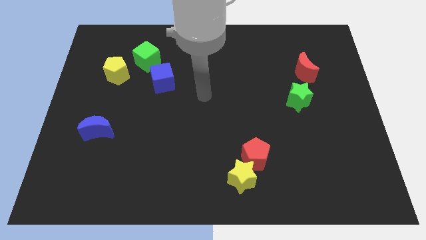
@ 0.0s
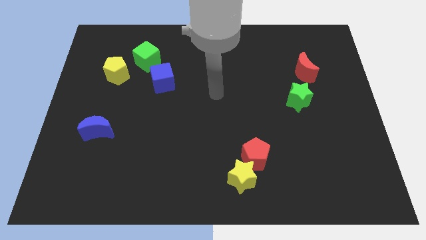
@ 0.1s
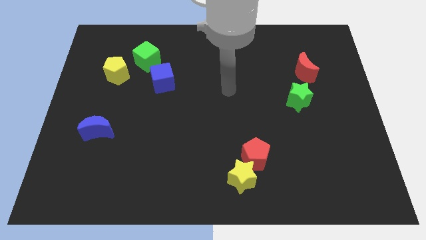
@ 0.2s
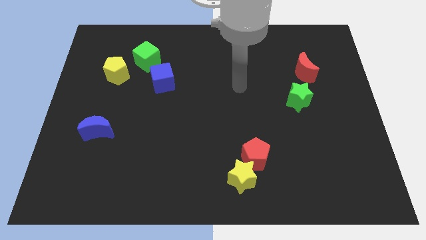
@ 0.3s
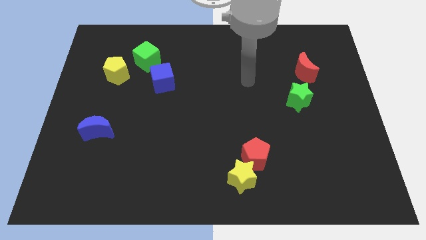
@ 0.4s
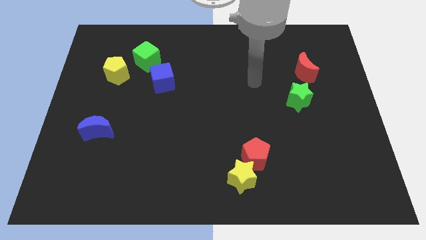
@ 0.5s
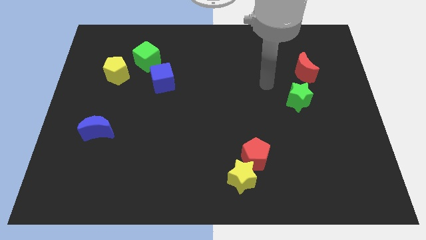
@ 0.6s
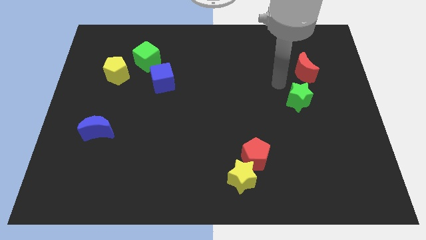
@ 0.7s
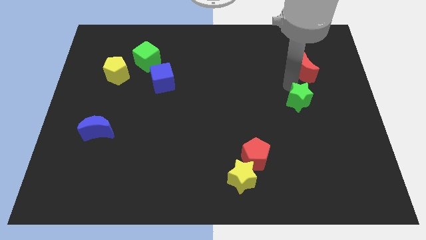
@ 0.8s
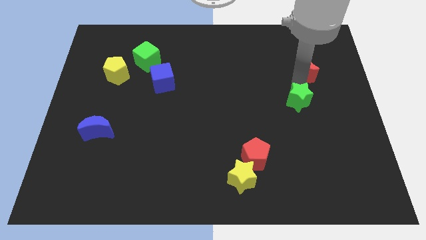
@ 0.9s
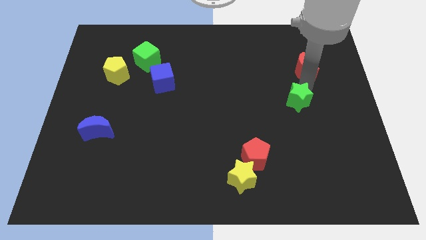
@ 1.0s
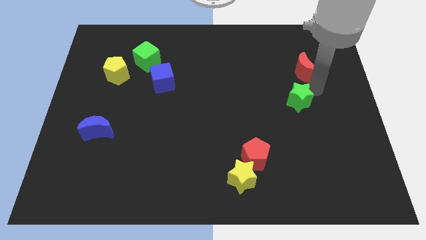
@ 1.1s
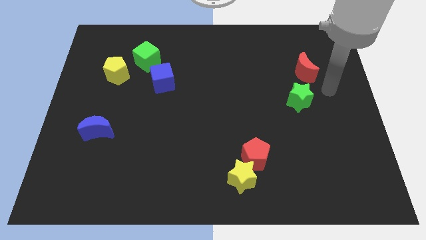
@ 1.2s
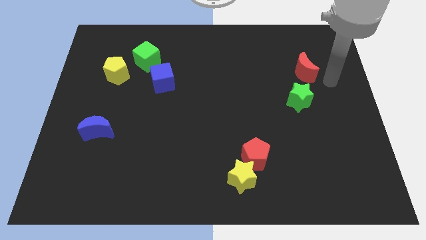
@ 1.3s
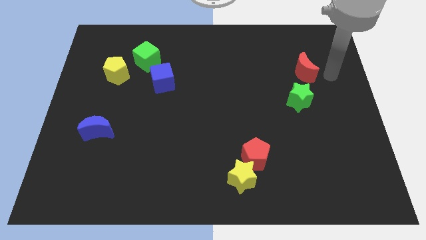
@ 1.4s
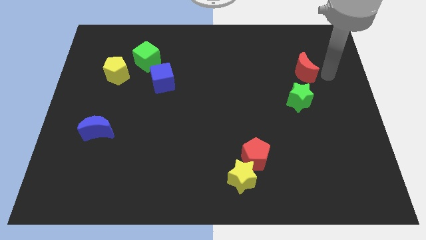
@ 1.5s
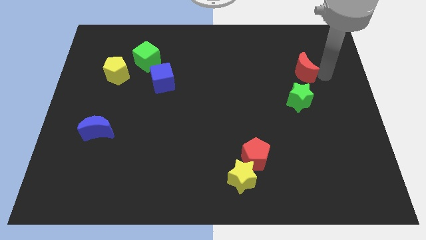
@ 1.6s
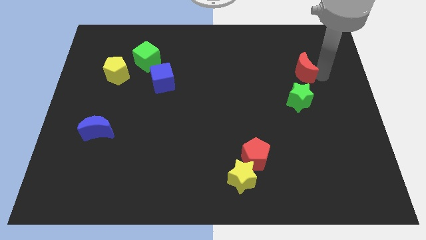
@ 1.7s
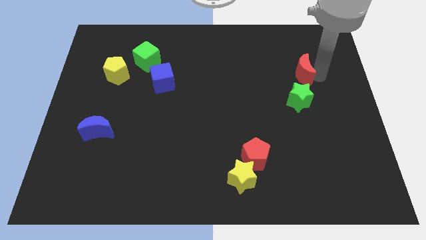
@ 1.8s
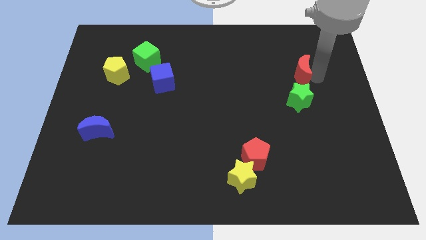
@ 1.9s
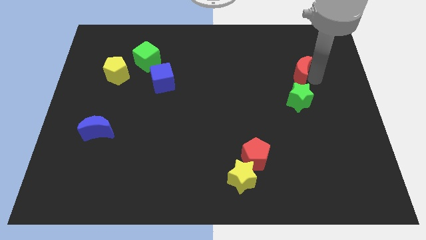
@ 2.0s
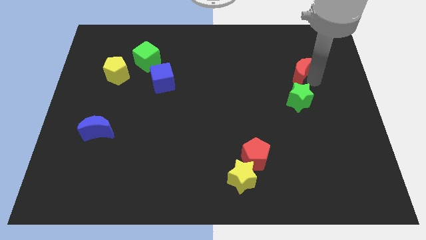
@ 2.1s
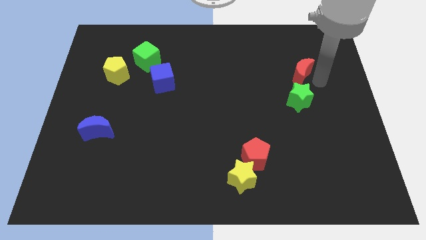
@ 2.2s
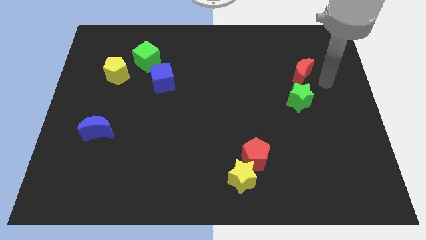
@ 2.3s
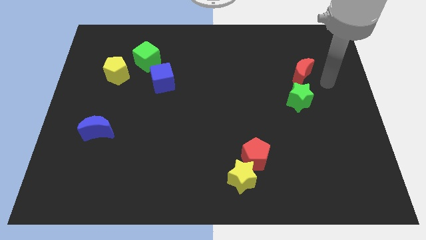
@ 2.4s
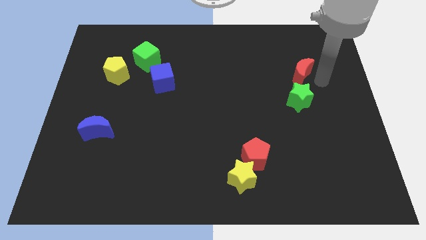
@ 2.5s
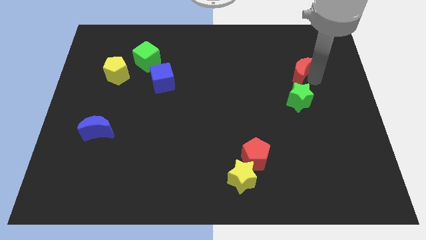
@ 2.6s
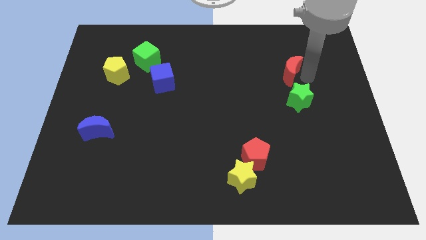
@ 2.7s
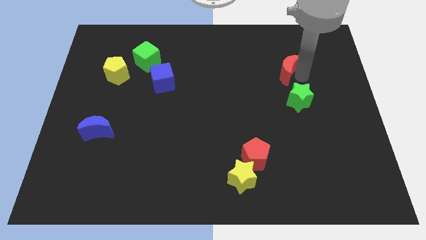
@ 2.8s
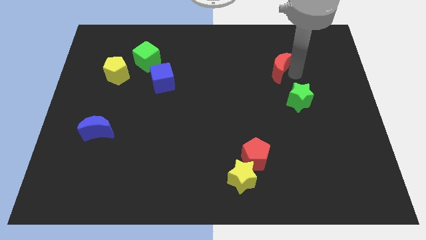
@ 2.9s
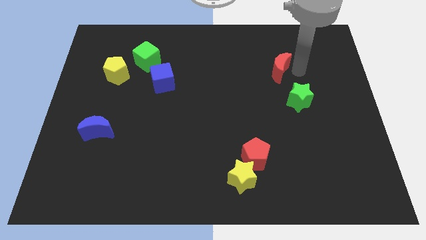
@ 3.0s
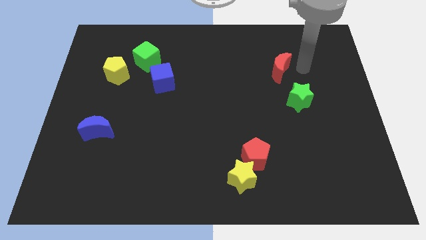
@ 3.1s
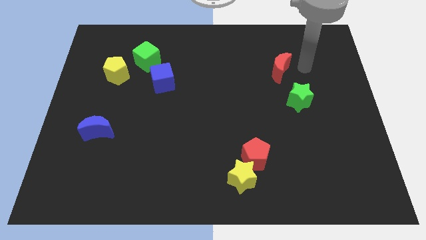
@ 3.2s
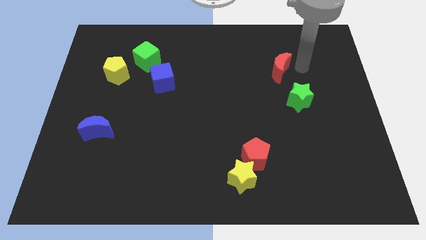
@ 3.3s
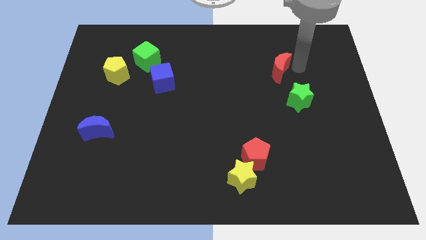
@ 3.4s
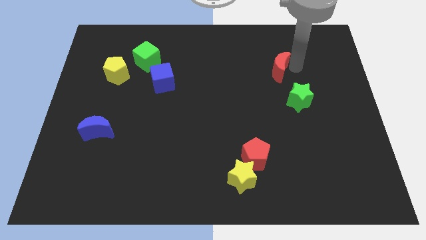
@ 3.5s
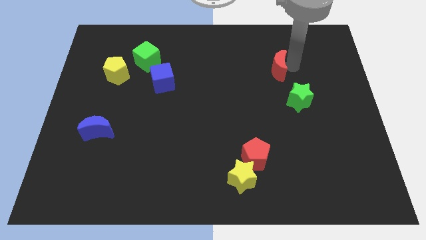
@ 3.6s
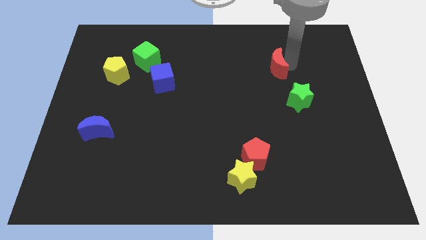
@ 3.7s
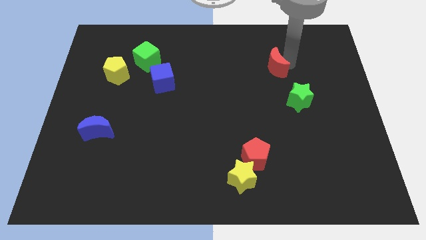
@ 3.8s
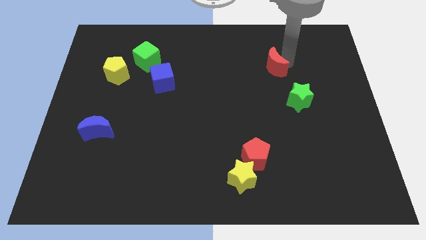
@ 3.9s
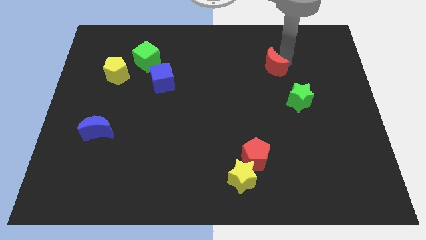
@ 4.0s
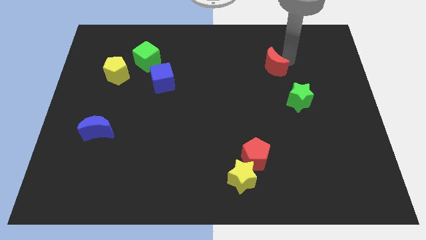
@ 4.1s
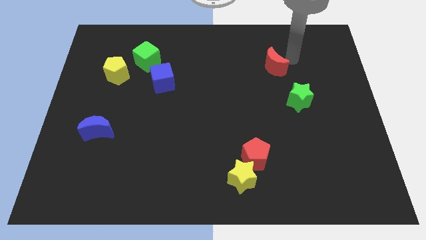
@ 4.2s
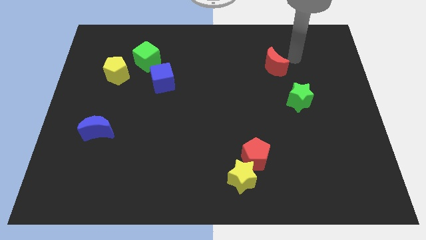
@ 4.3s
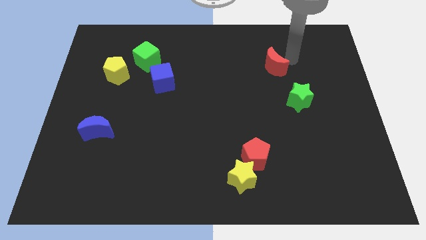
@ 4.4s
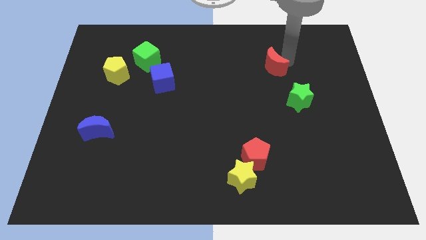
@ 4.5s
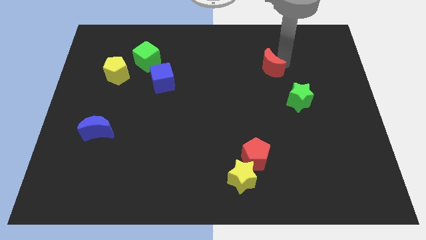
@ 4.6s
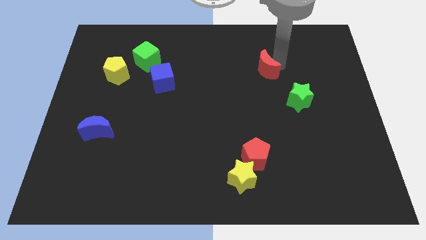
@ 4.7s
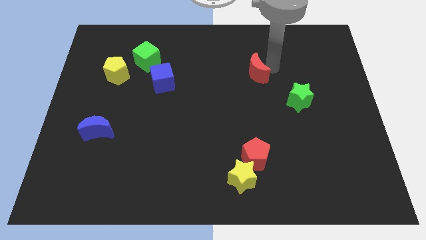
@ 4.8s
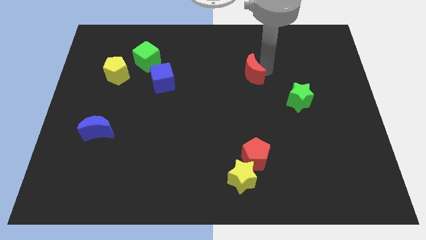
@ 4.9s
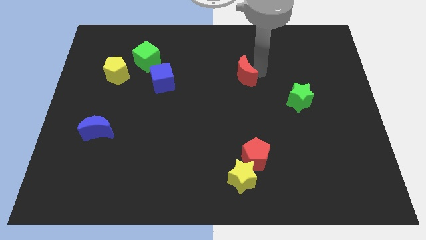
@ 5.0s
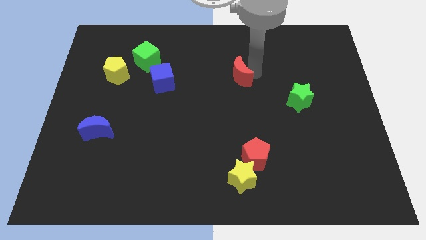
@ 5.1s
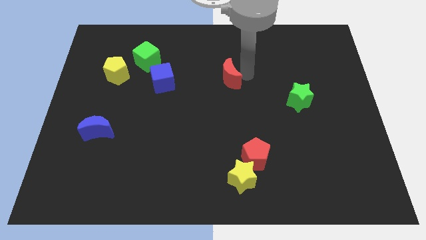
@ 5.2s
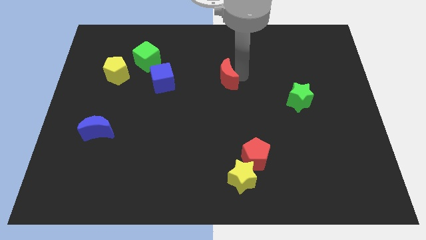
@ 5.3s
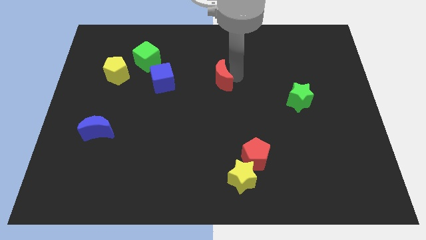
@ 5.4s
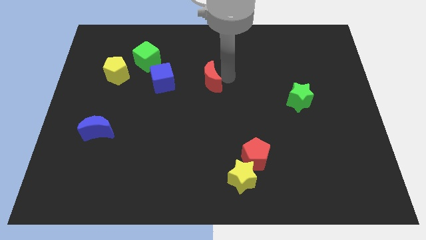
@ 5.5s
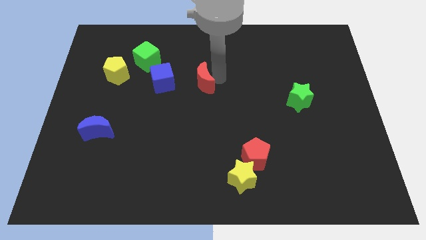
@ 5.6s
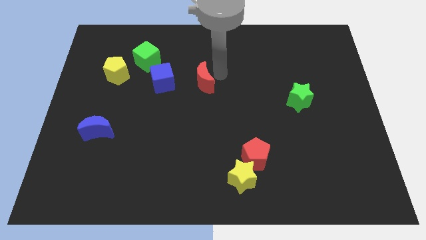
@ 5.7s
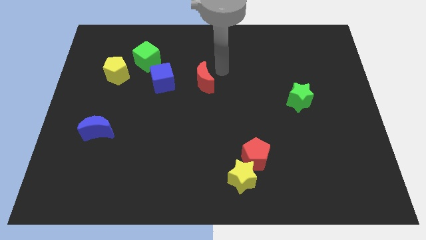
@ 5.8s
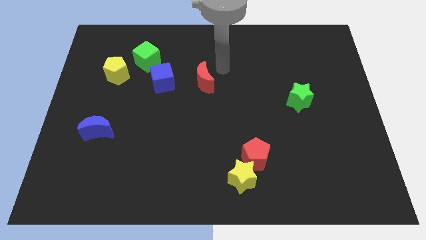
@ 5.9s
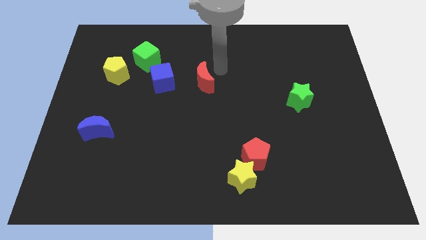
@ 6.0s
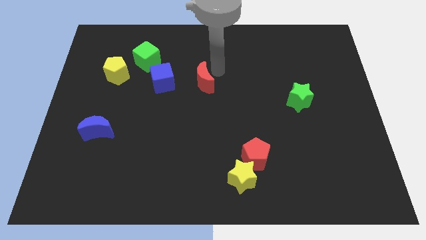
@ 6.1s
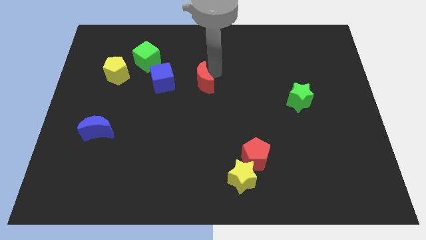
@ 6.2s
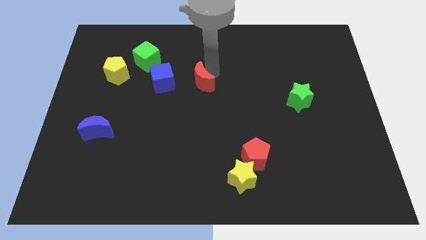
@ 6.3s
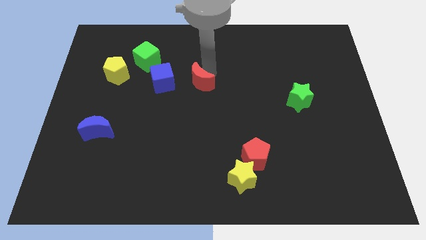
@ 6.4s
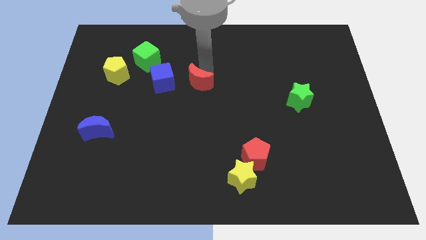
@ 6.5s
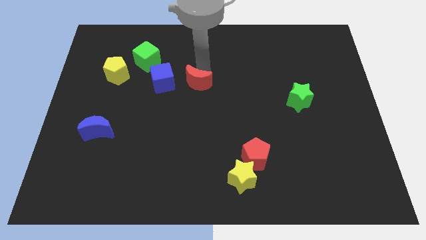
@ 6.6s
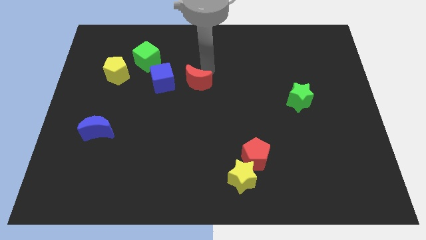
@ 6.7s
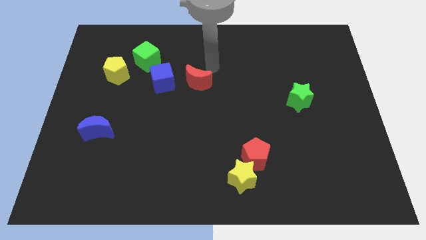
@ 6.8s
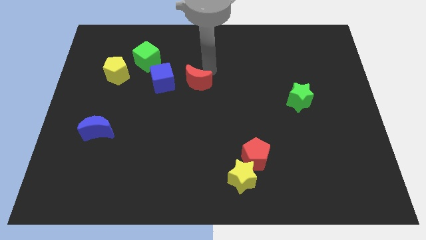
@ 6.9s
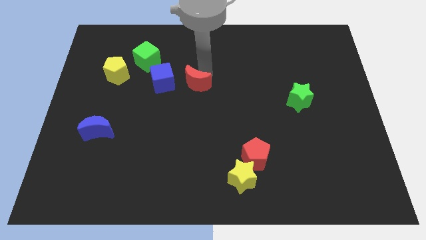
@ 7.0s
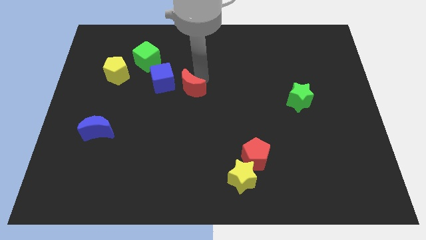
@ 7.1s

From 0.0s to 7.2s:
push the red moon diagonally down and to the right of the blue cube
